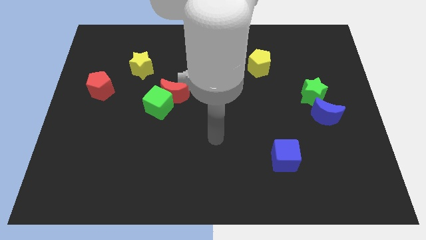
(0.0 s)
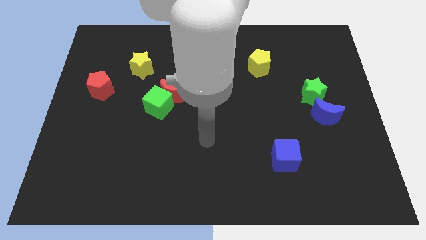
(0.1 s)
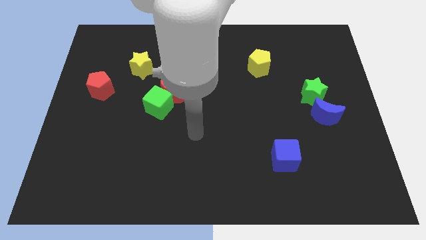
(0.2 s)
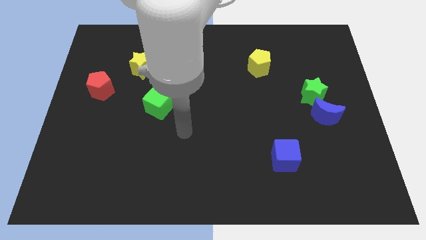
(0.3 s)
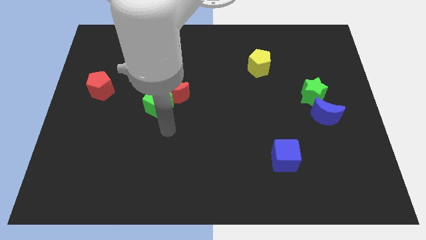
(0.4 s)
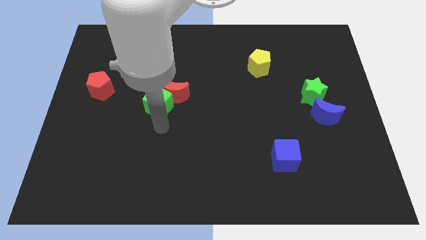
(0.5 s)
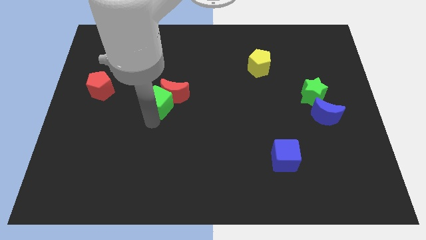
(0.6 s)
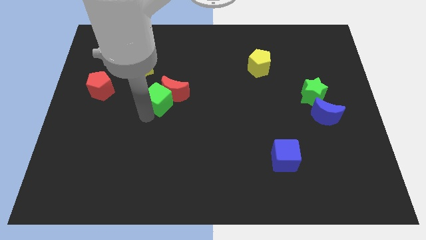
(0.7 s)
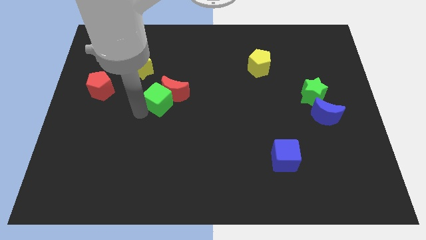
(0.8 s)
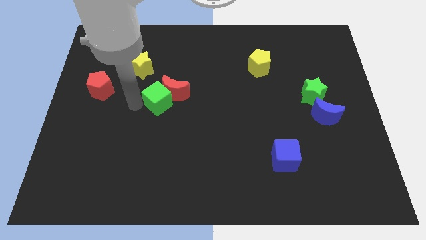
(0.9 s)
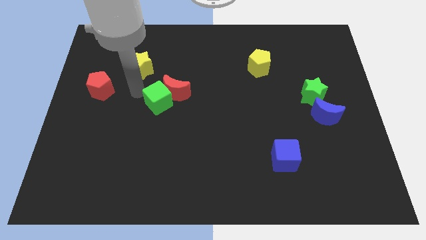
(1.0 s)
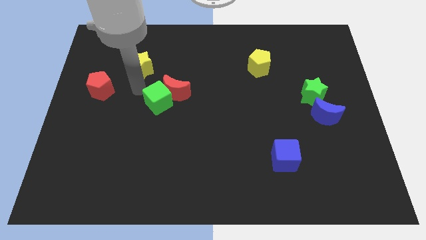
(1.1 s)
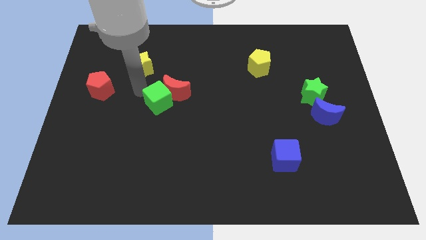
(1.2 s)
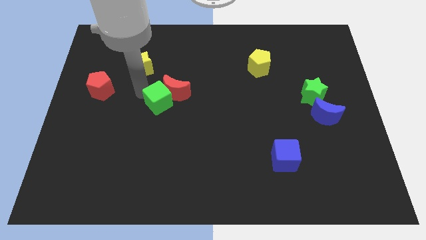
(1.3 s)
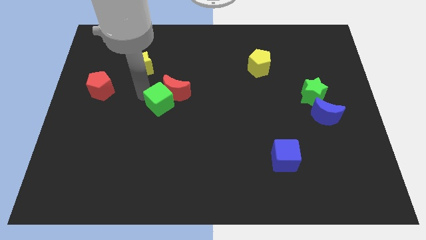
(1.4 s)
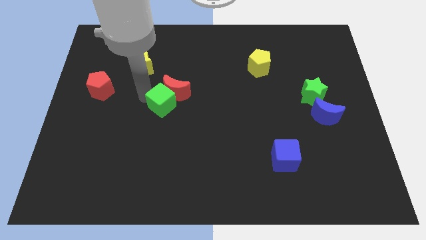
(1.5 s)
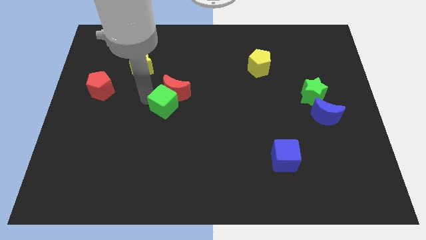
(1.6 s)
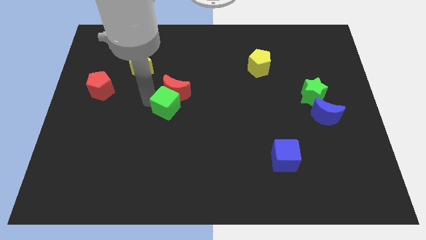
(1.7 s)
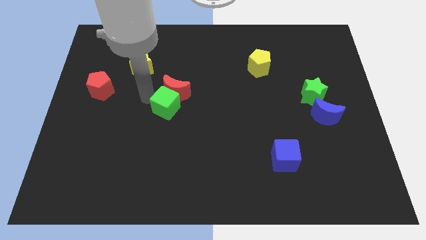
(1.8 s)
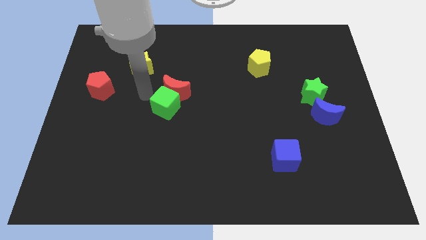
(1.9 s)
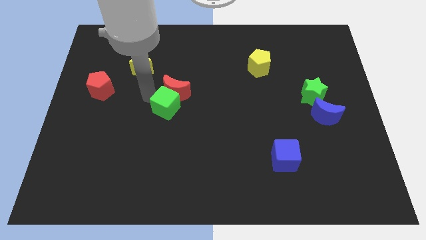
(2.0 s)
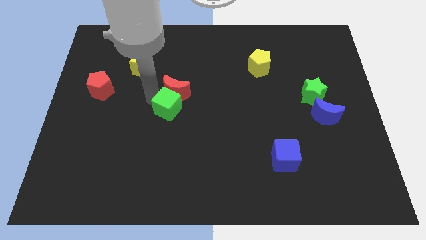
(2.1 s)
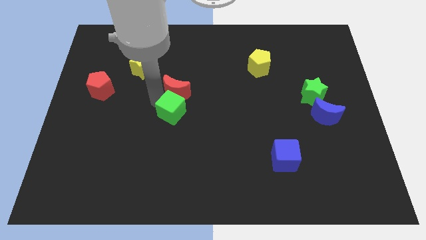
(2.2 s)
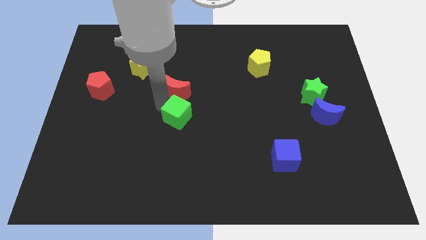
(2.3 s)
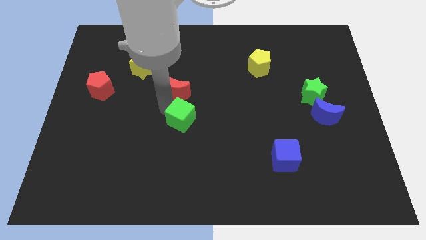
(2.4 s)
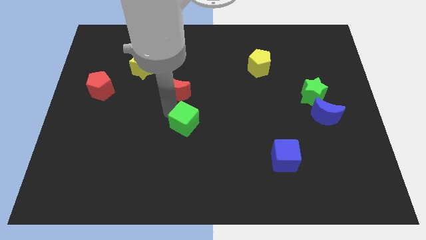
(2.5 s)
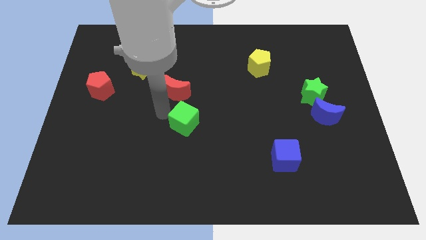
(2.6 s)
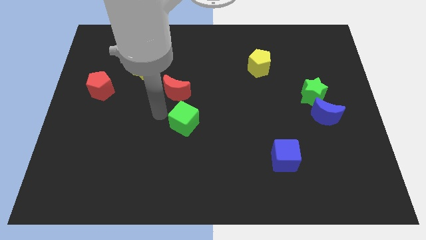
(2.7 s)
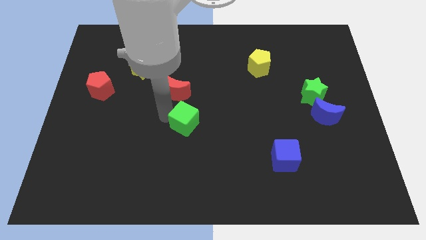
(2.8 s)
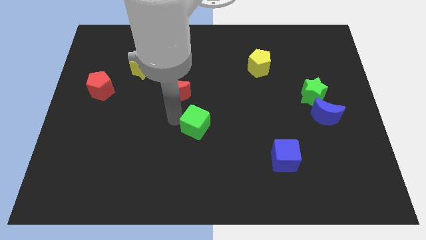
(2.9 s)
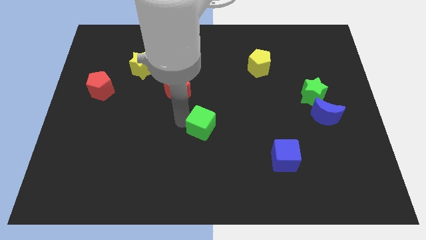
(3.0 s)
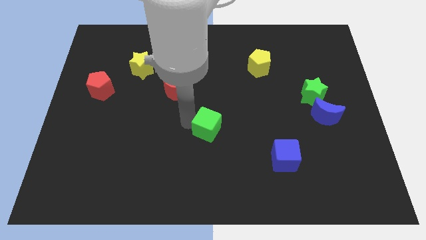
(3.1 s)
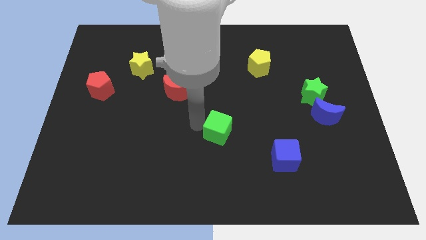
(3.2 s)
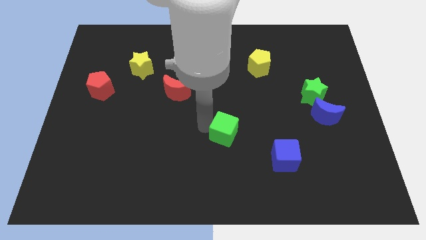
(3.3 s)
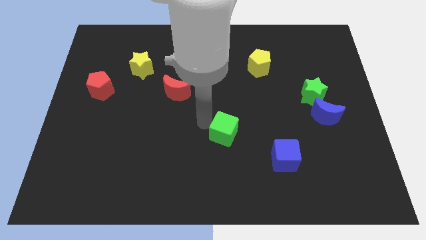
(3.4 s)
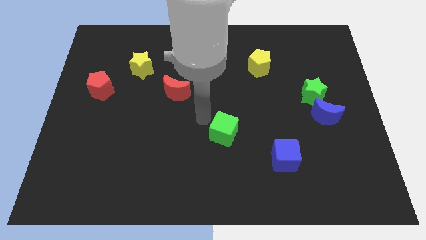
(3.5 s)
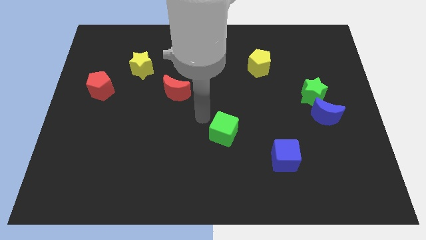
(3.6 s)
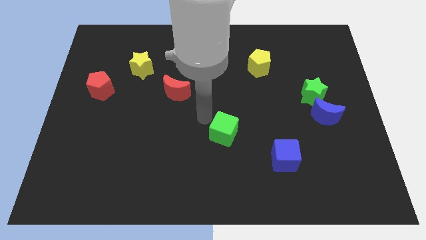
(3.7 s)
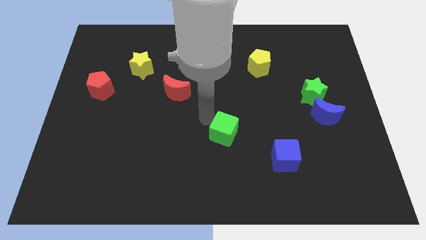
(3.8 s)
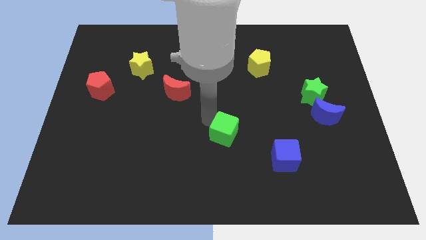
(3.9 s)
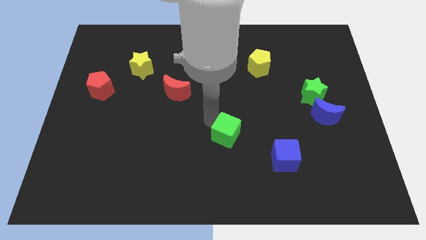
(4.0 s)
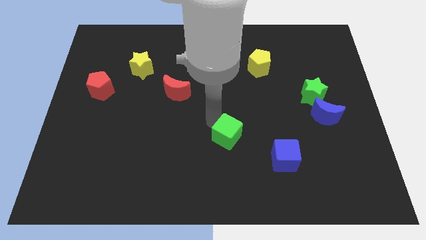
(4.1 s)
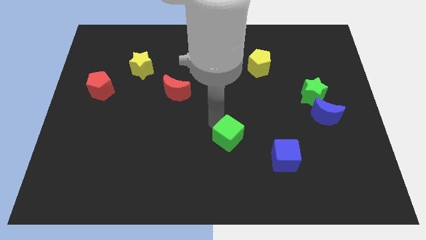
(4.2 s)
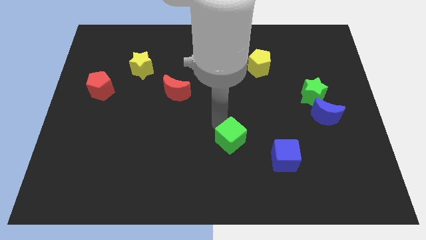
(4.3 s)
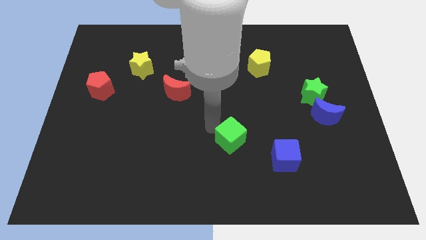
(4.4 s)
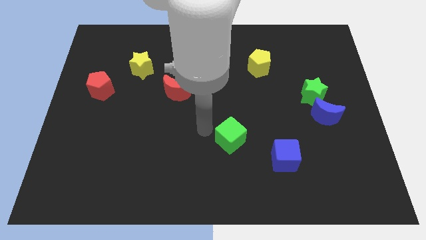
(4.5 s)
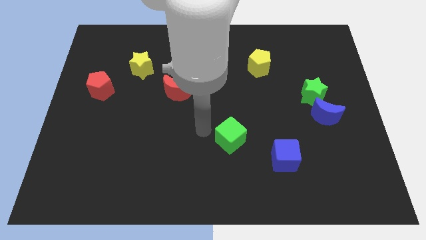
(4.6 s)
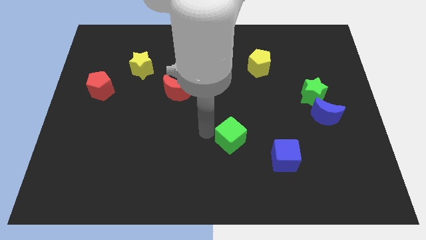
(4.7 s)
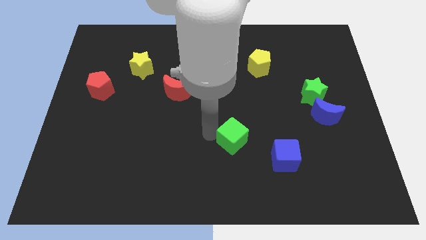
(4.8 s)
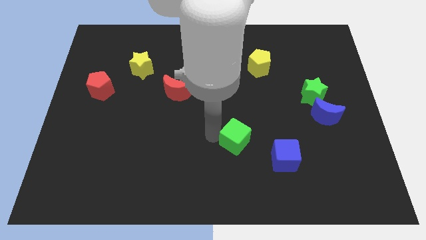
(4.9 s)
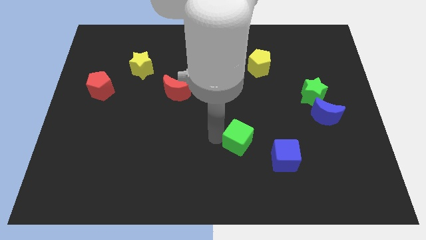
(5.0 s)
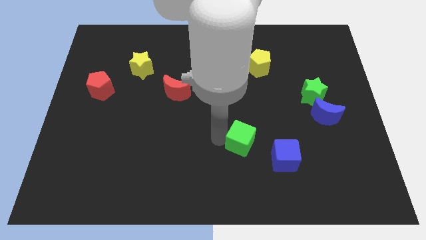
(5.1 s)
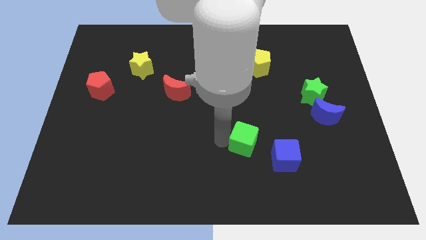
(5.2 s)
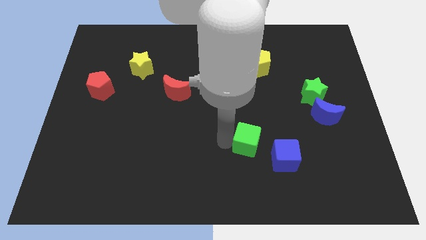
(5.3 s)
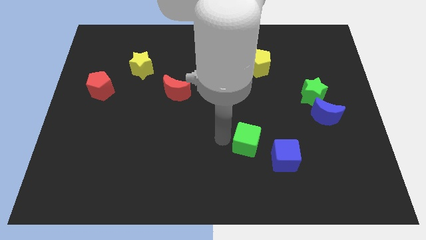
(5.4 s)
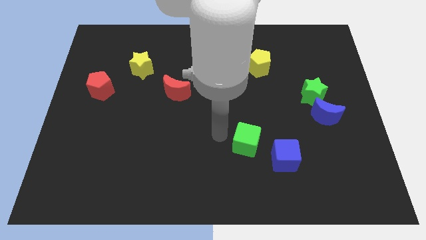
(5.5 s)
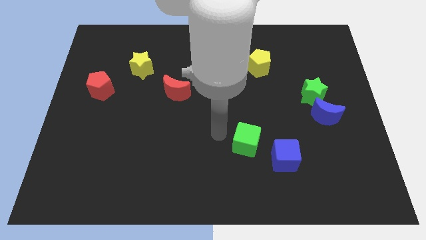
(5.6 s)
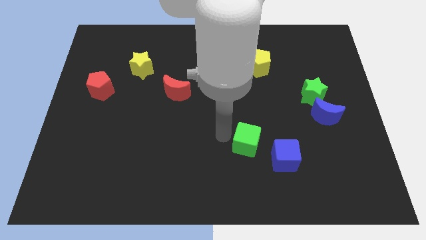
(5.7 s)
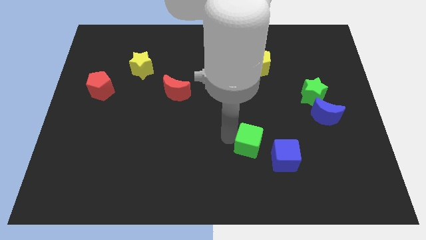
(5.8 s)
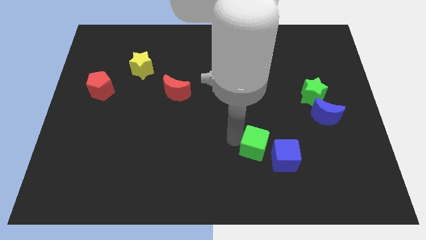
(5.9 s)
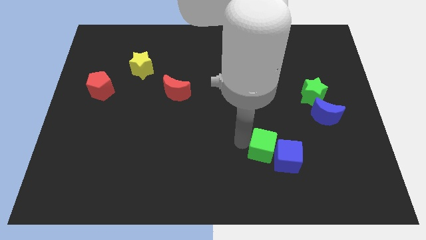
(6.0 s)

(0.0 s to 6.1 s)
slide the green cube to the blue cube

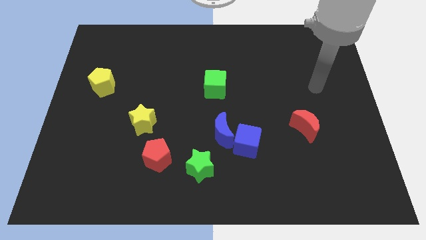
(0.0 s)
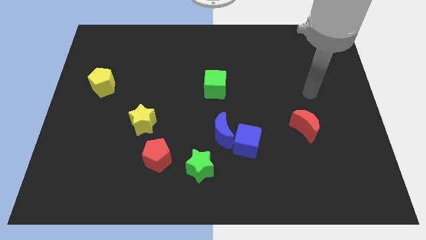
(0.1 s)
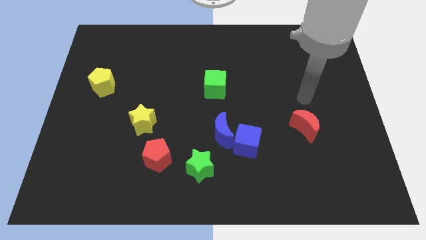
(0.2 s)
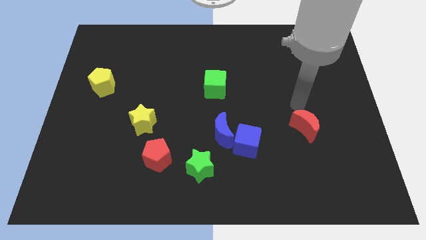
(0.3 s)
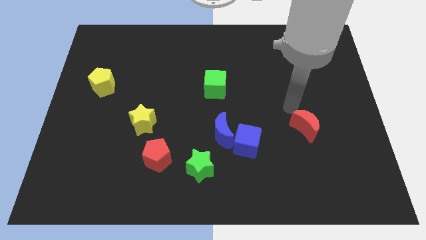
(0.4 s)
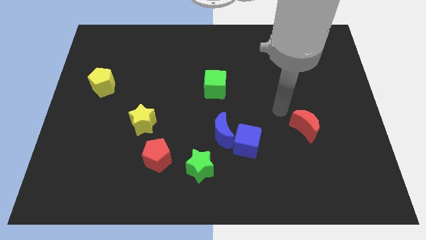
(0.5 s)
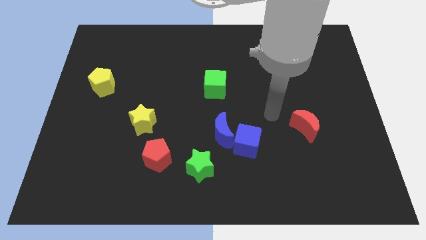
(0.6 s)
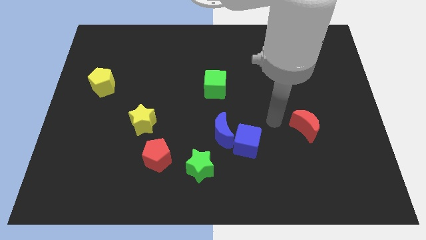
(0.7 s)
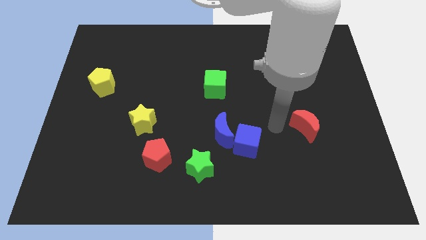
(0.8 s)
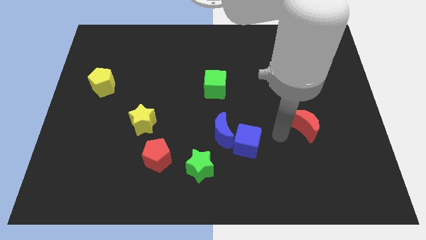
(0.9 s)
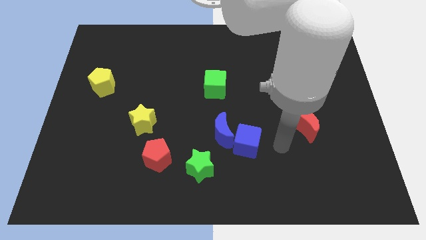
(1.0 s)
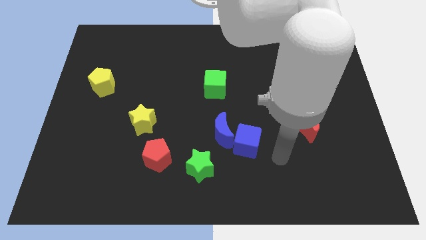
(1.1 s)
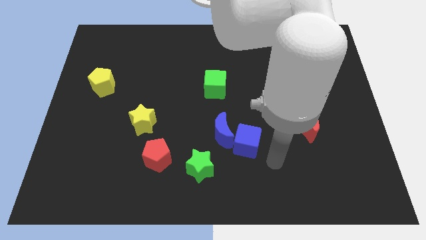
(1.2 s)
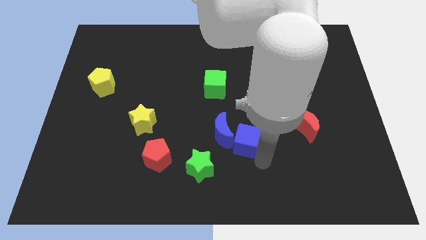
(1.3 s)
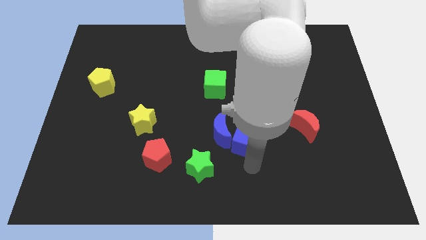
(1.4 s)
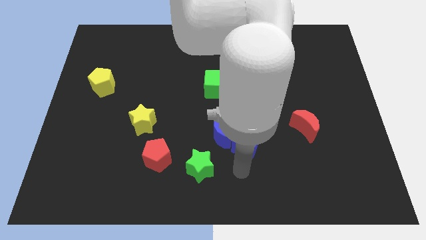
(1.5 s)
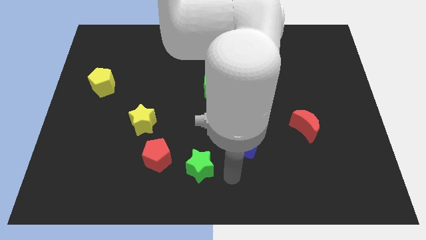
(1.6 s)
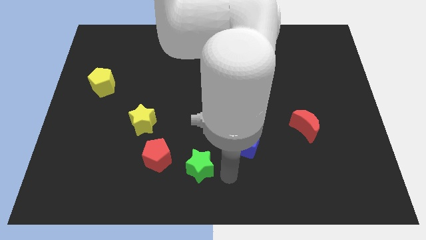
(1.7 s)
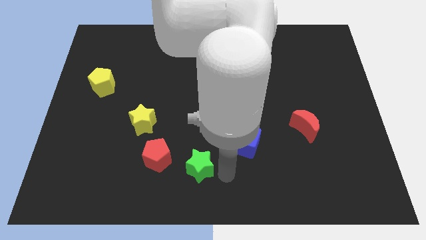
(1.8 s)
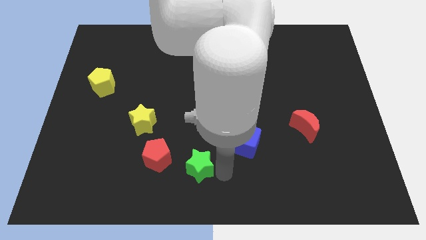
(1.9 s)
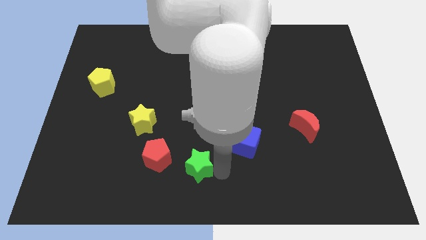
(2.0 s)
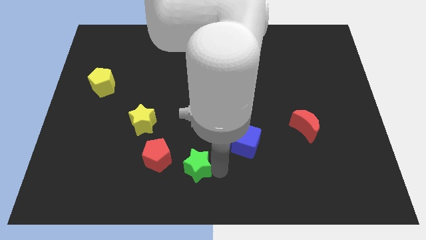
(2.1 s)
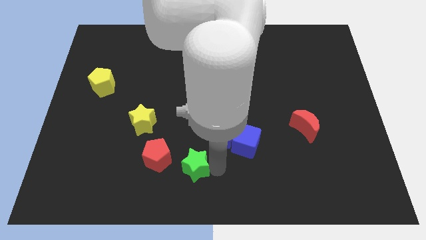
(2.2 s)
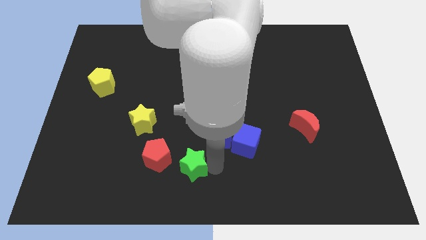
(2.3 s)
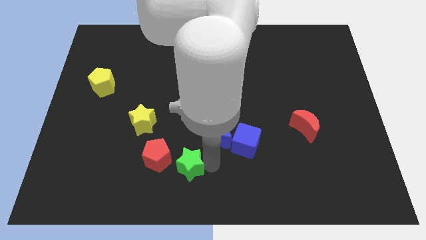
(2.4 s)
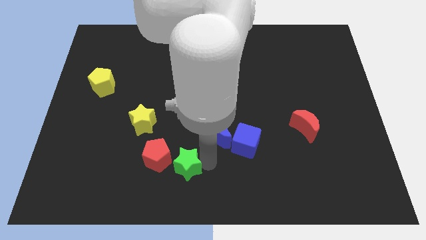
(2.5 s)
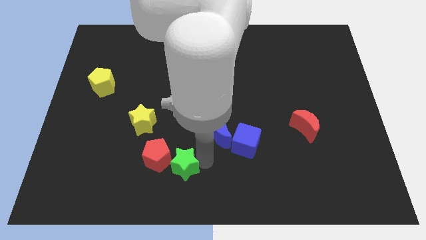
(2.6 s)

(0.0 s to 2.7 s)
push the green star to the red pentagon
